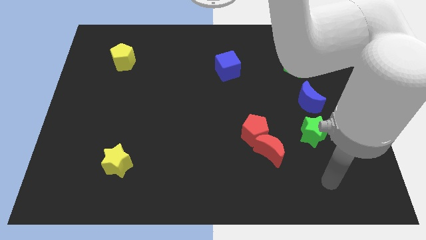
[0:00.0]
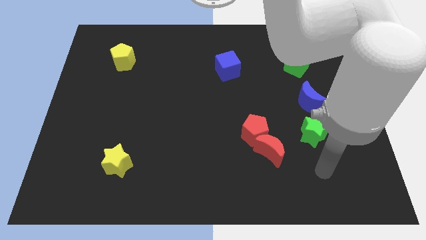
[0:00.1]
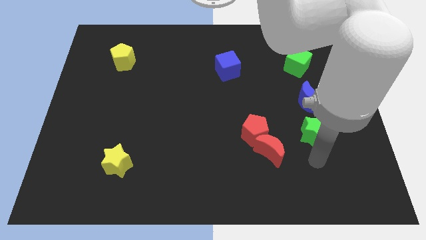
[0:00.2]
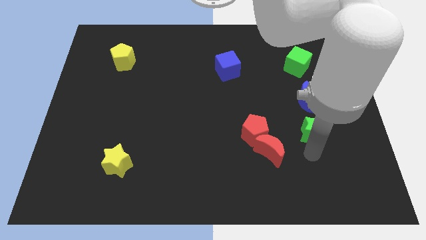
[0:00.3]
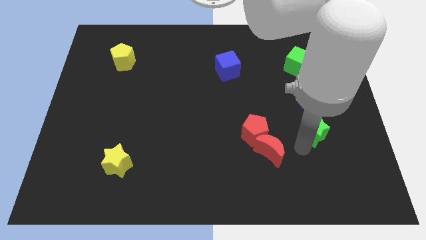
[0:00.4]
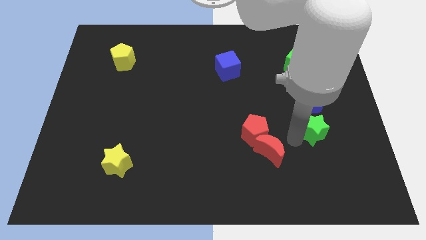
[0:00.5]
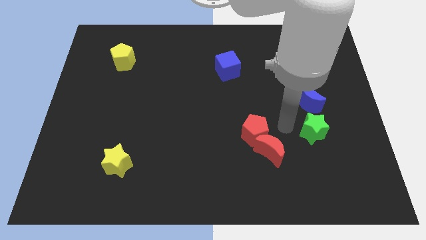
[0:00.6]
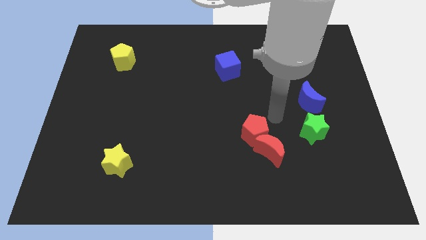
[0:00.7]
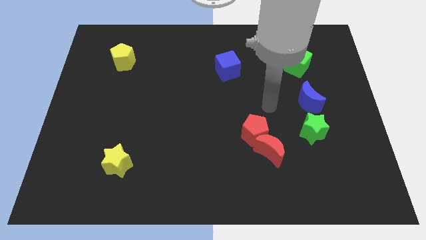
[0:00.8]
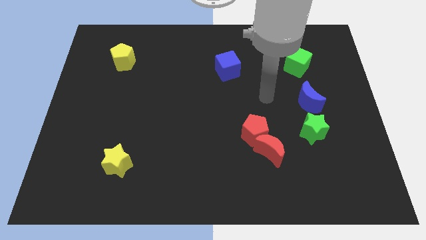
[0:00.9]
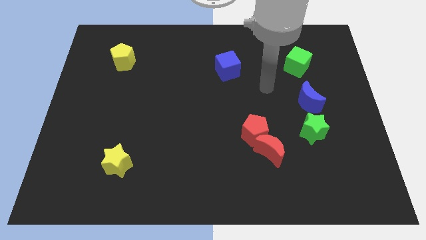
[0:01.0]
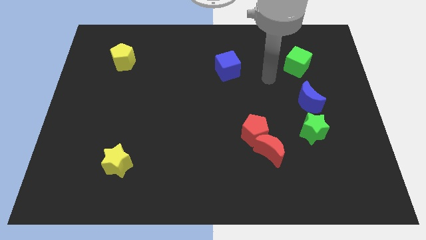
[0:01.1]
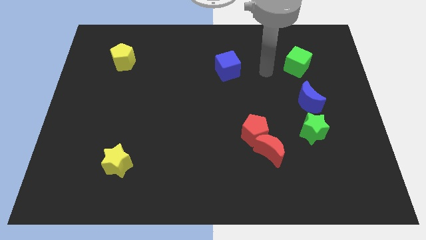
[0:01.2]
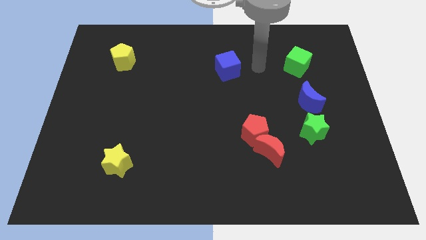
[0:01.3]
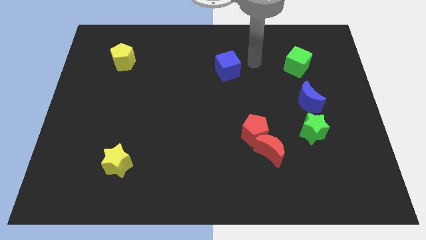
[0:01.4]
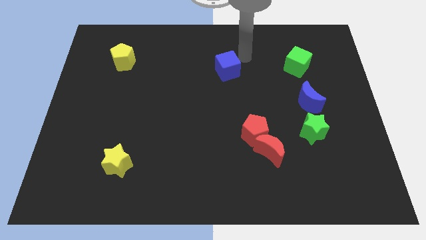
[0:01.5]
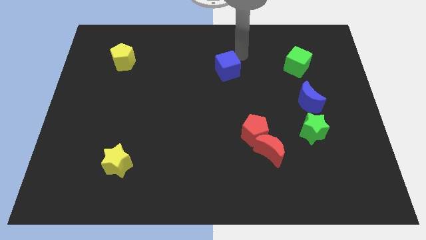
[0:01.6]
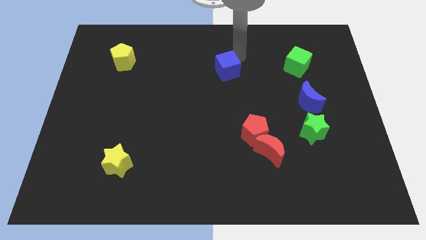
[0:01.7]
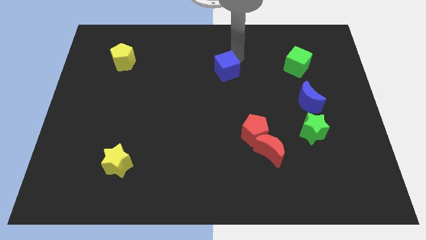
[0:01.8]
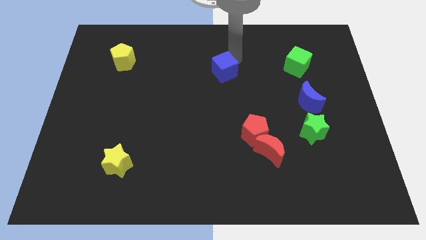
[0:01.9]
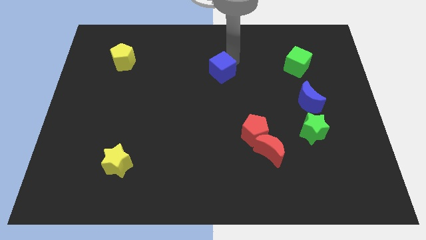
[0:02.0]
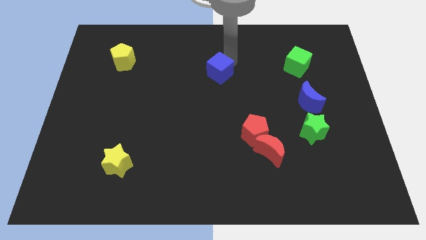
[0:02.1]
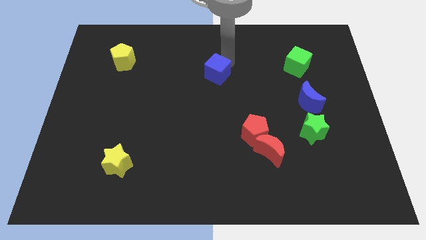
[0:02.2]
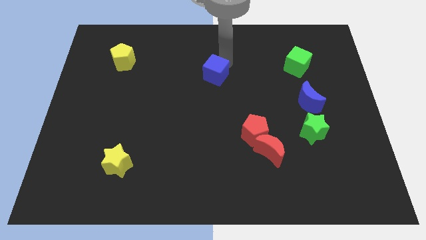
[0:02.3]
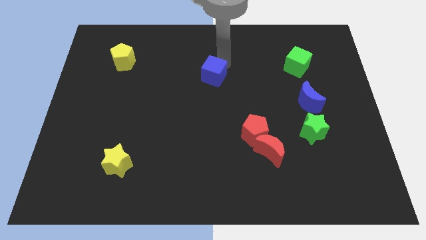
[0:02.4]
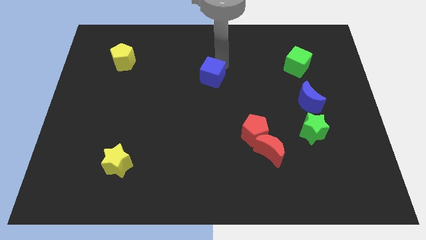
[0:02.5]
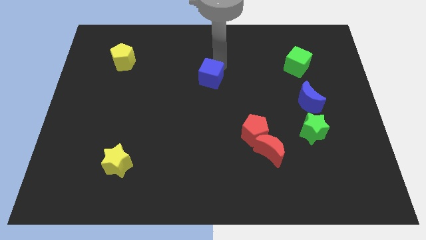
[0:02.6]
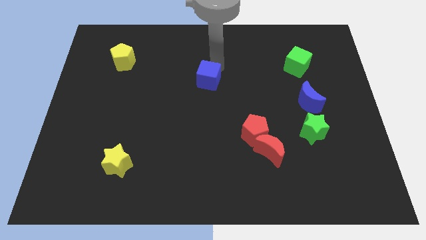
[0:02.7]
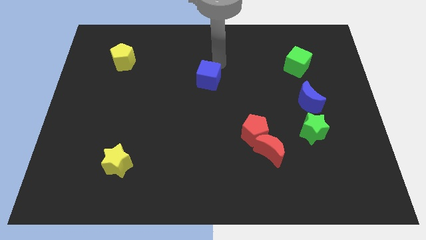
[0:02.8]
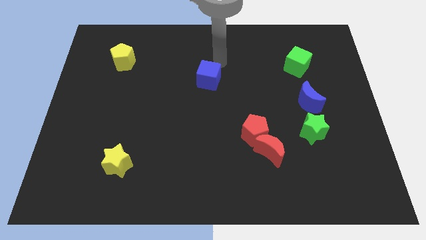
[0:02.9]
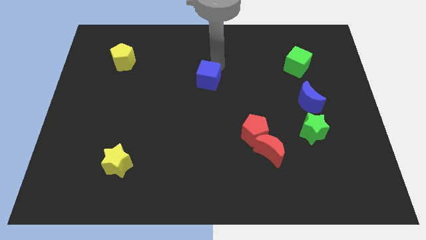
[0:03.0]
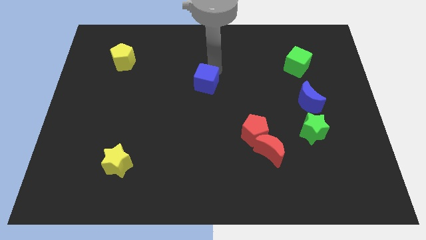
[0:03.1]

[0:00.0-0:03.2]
move the blue cube down and to the left a bit

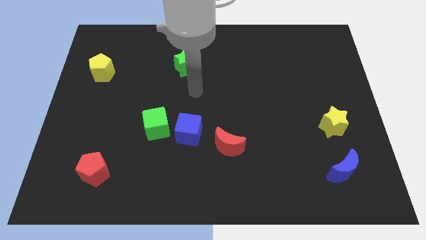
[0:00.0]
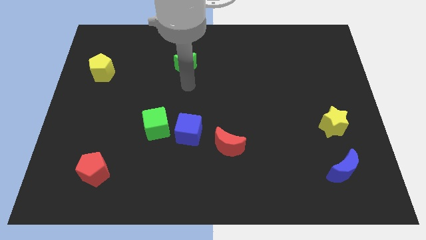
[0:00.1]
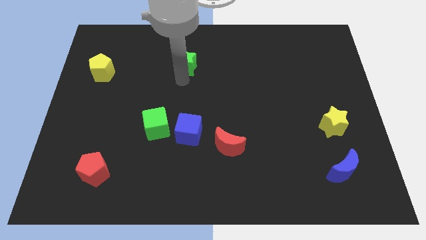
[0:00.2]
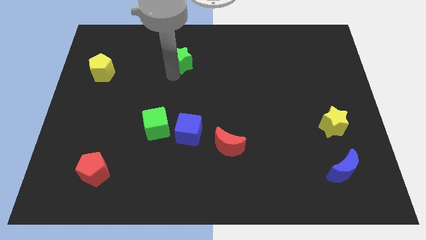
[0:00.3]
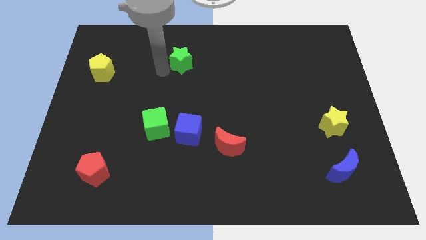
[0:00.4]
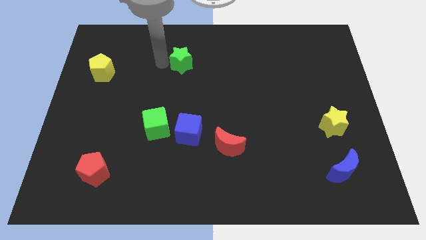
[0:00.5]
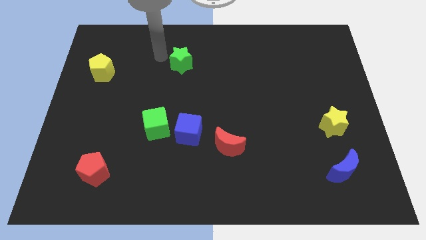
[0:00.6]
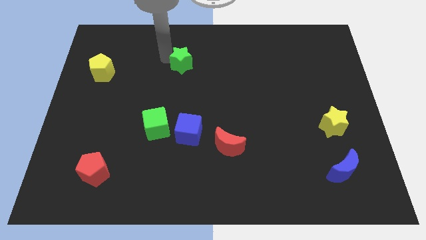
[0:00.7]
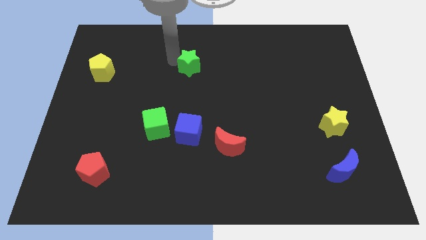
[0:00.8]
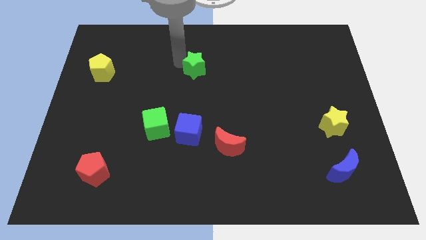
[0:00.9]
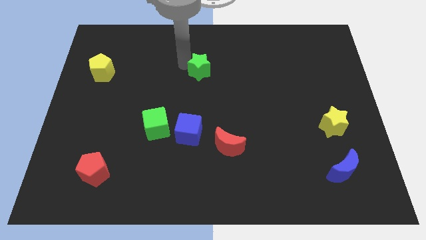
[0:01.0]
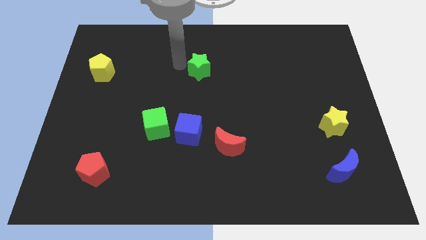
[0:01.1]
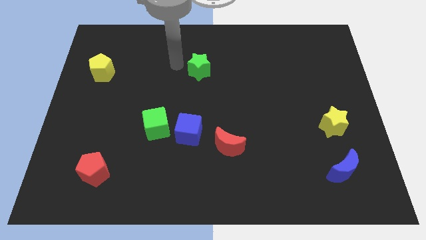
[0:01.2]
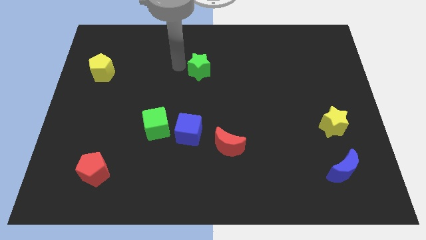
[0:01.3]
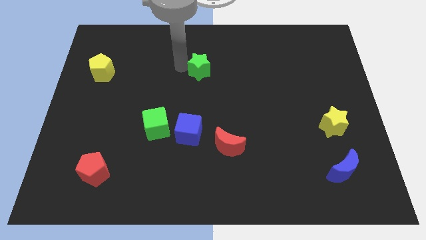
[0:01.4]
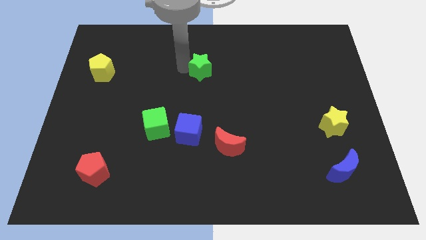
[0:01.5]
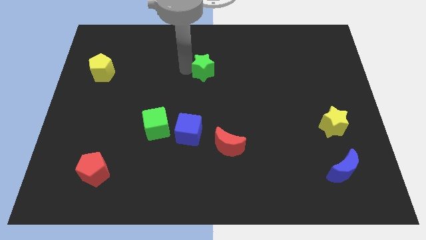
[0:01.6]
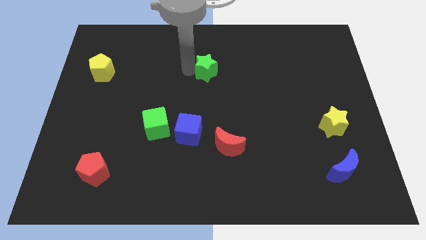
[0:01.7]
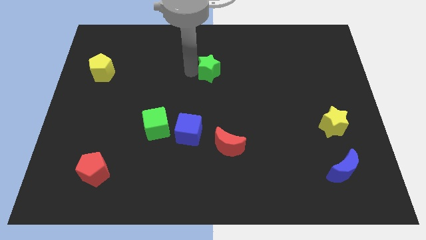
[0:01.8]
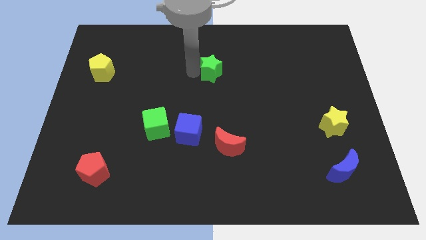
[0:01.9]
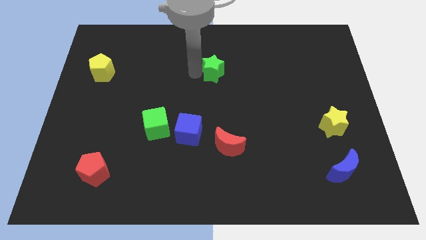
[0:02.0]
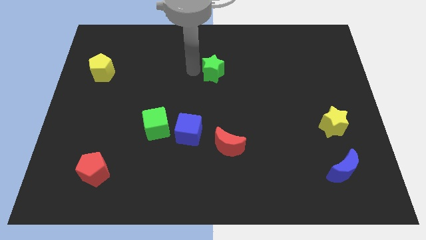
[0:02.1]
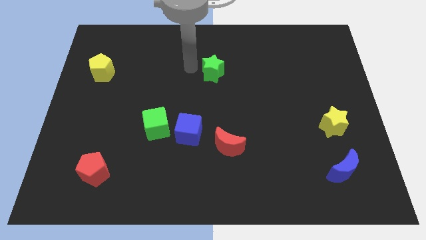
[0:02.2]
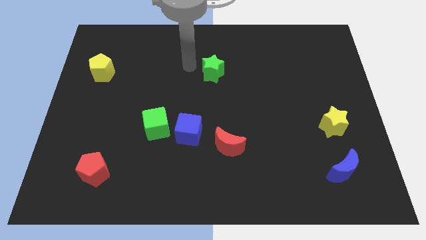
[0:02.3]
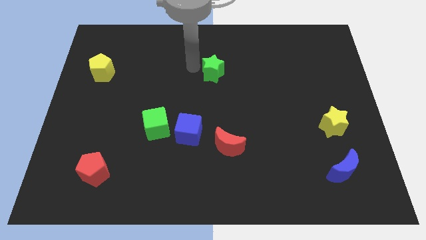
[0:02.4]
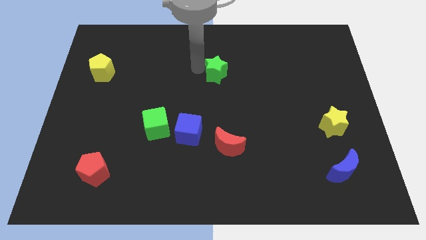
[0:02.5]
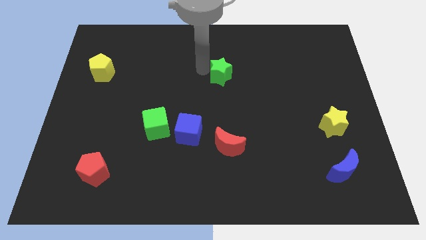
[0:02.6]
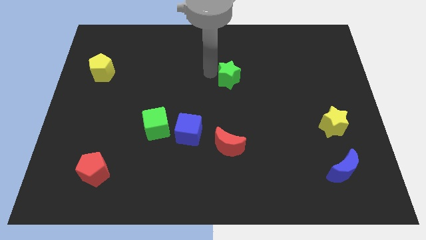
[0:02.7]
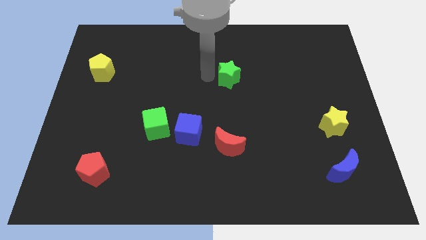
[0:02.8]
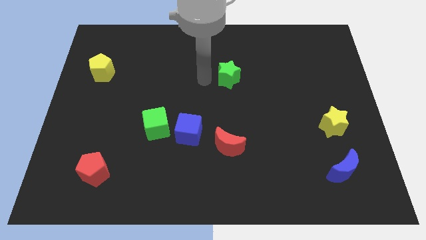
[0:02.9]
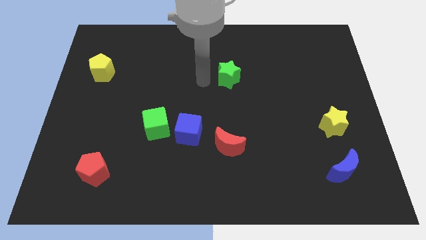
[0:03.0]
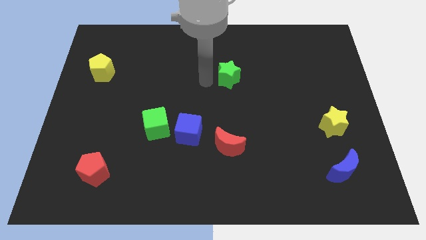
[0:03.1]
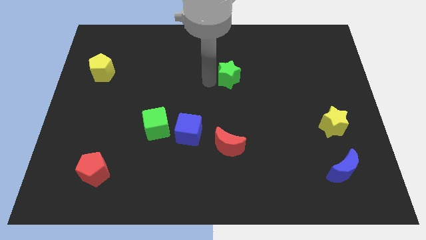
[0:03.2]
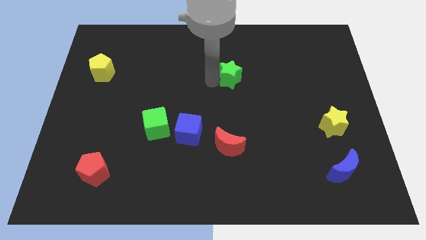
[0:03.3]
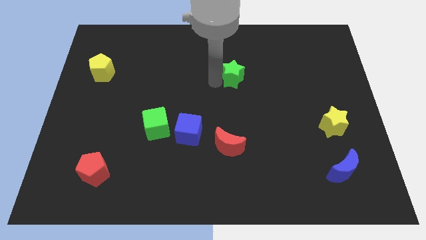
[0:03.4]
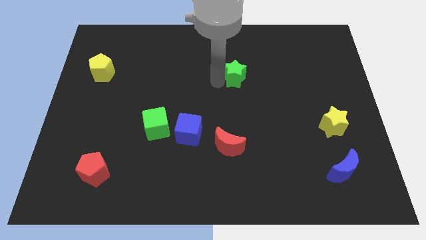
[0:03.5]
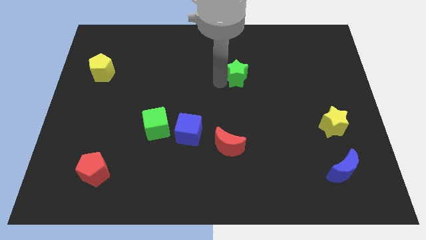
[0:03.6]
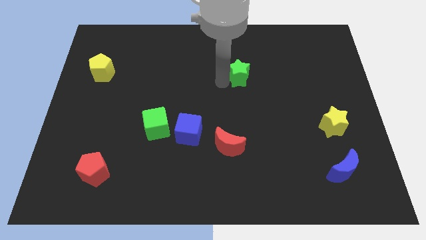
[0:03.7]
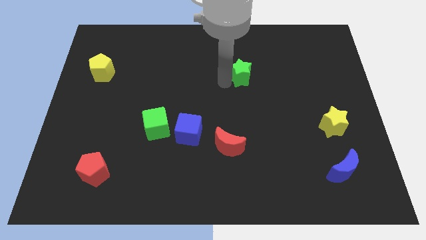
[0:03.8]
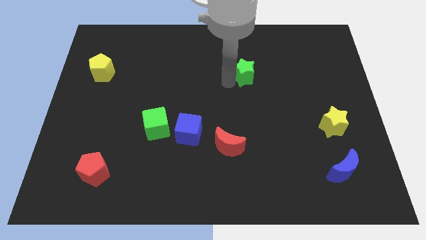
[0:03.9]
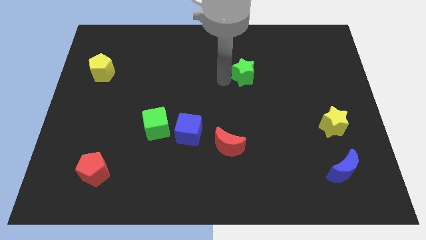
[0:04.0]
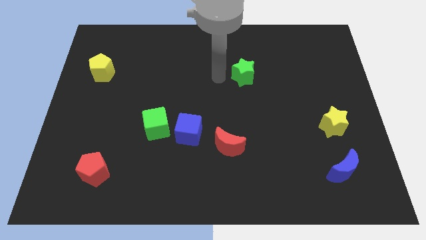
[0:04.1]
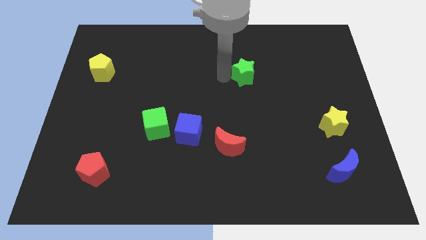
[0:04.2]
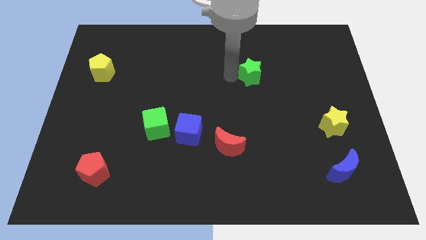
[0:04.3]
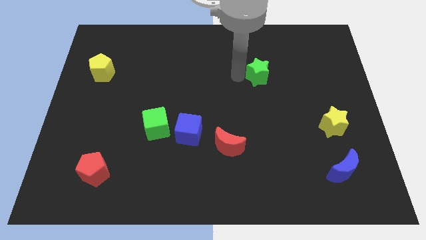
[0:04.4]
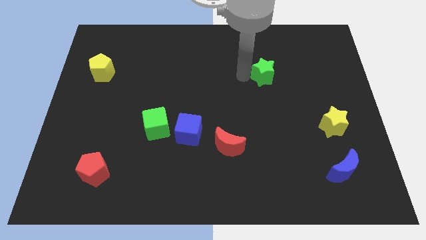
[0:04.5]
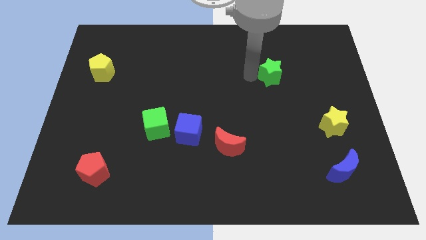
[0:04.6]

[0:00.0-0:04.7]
move the green star right

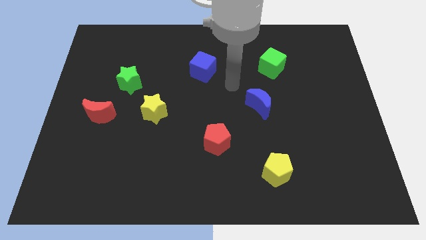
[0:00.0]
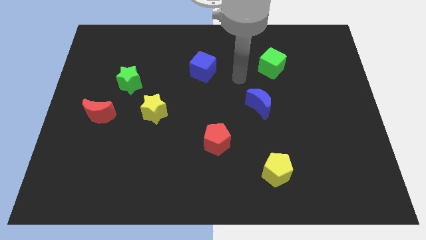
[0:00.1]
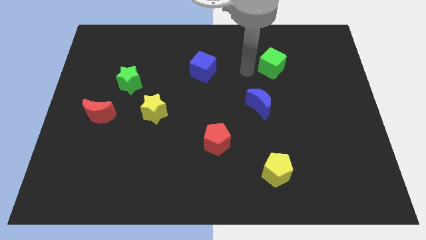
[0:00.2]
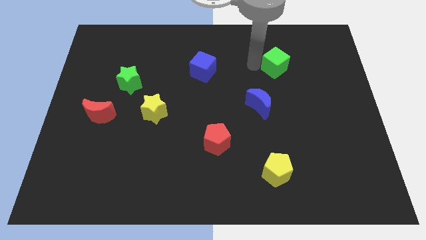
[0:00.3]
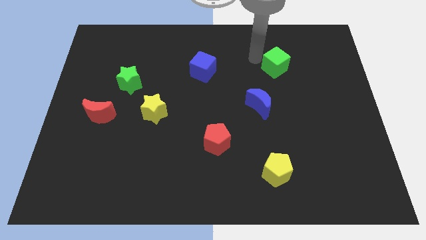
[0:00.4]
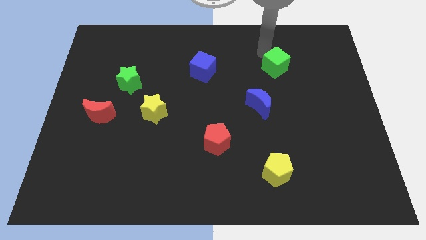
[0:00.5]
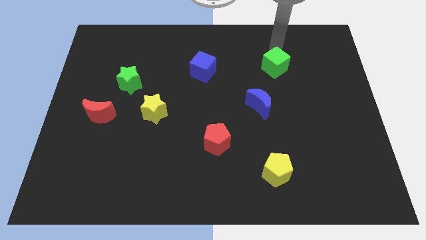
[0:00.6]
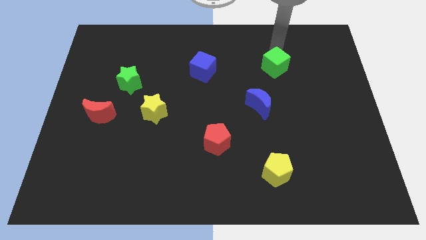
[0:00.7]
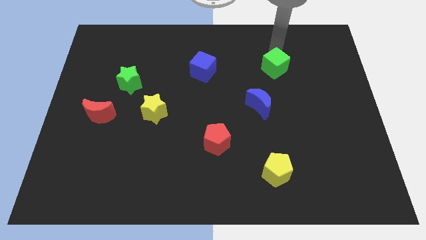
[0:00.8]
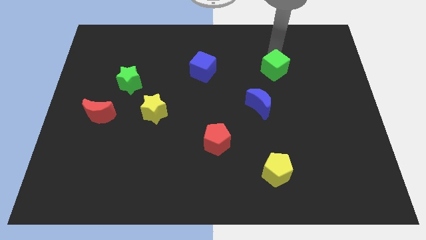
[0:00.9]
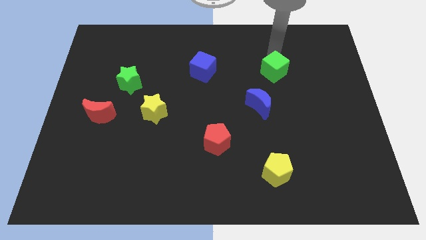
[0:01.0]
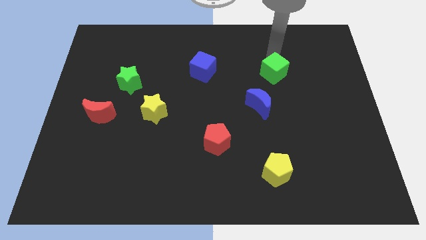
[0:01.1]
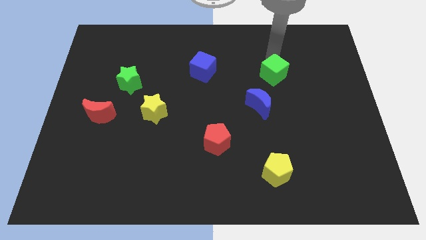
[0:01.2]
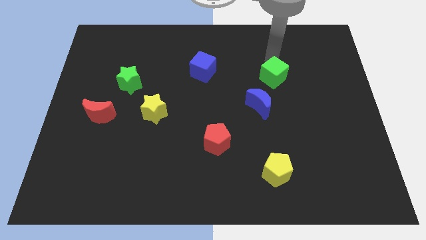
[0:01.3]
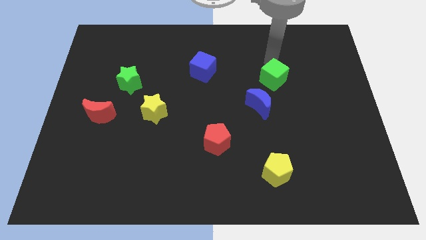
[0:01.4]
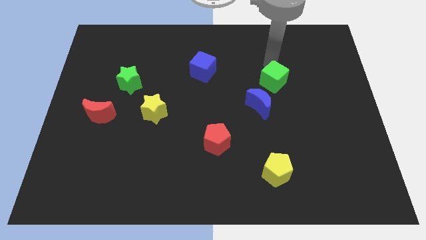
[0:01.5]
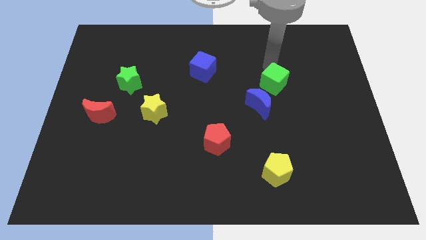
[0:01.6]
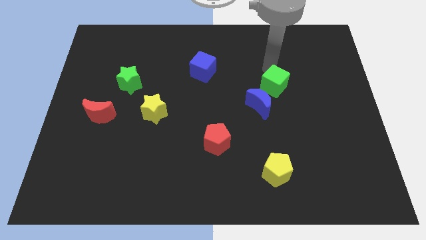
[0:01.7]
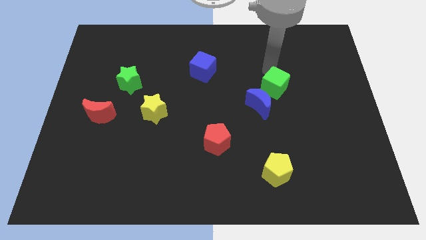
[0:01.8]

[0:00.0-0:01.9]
slightly slide the green cube downwards
